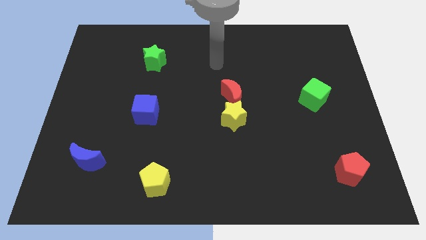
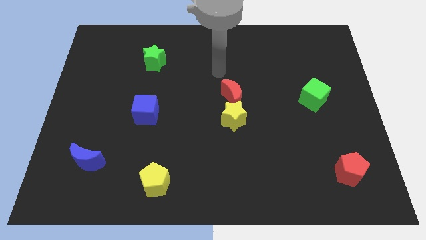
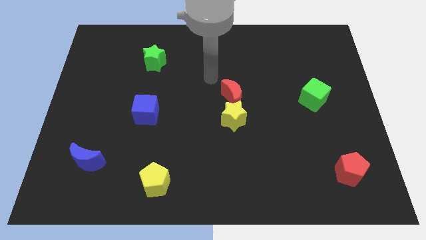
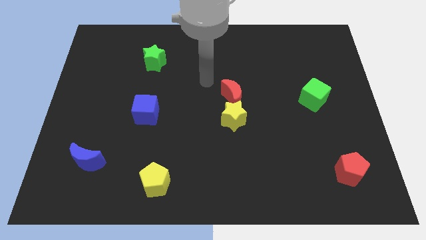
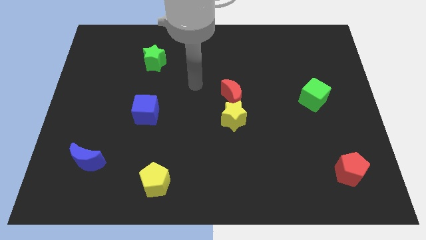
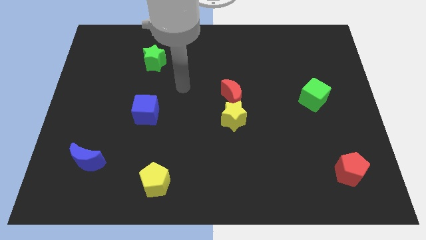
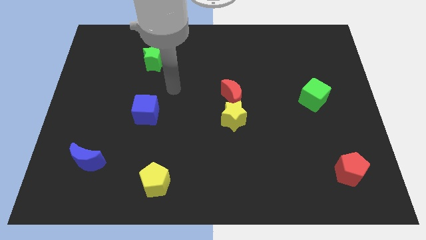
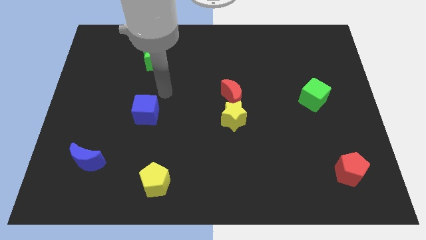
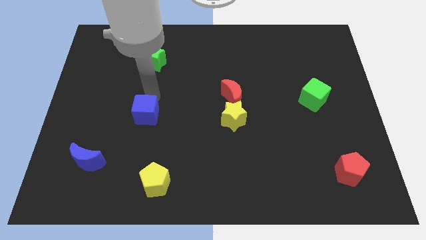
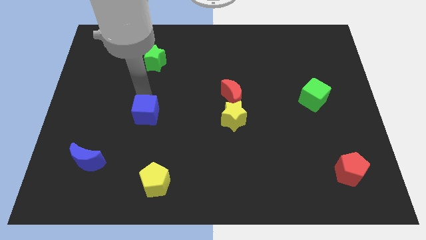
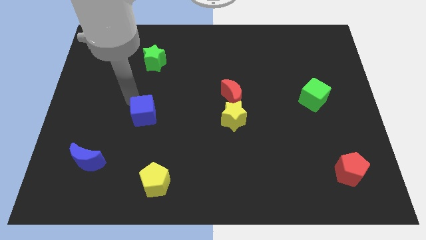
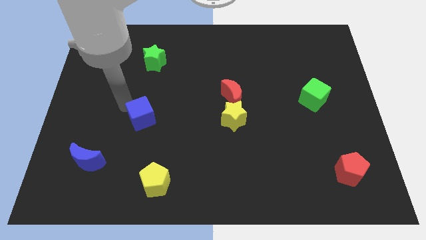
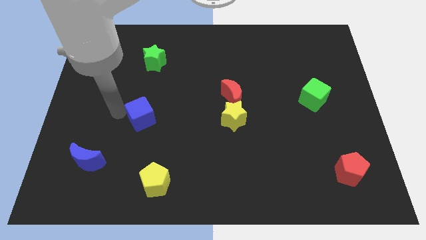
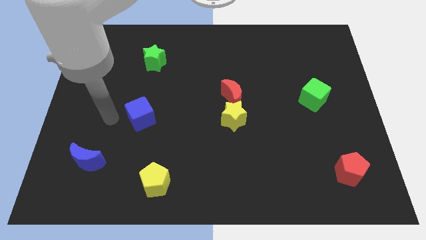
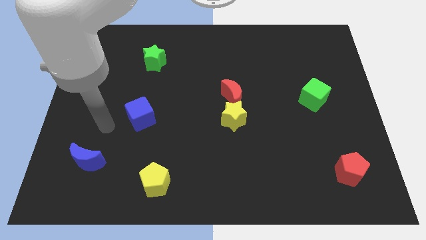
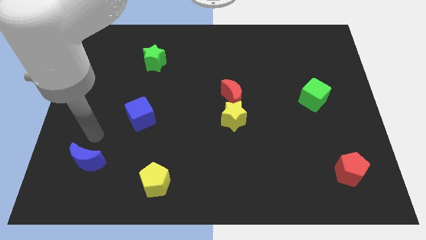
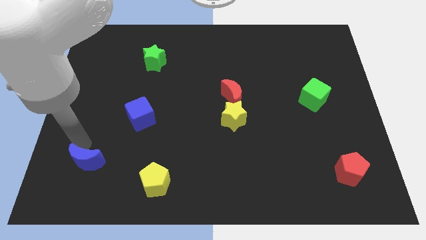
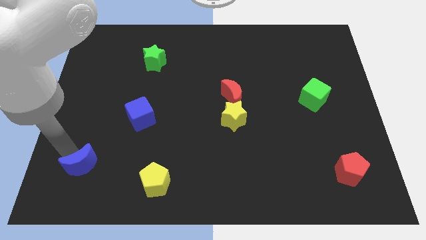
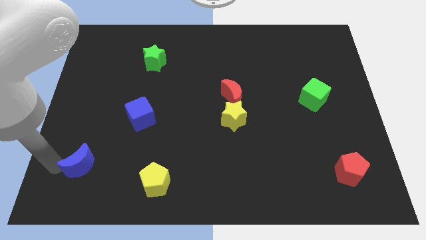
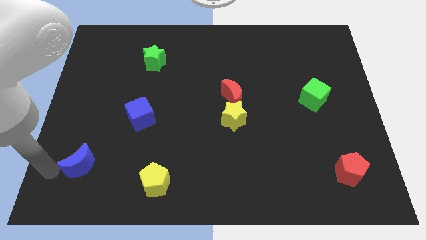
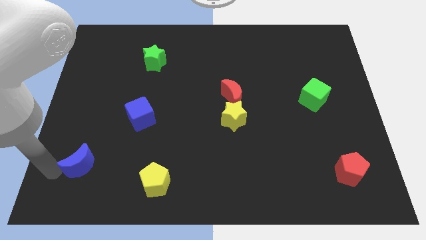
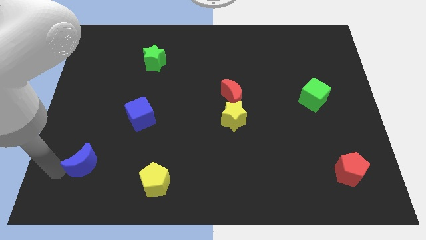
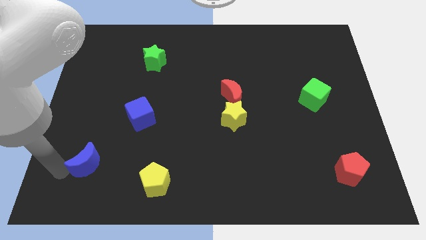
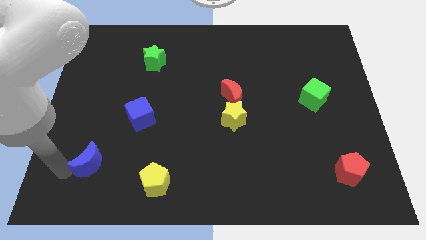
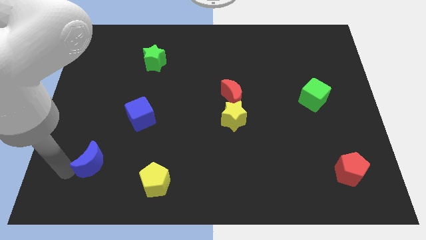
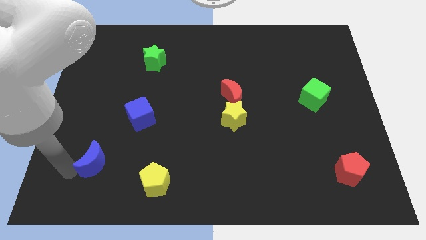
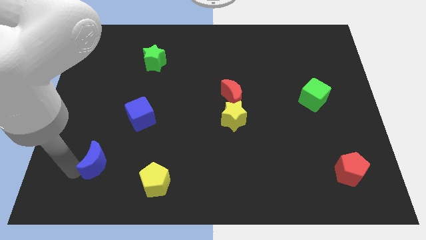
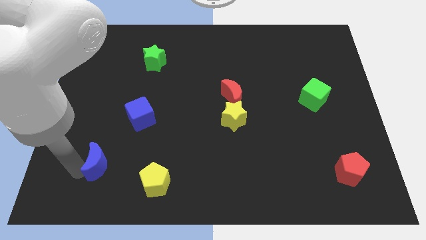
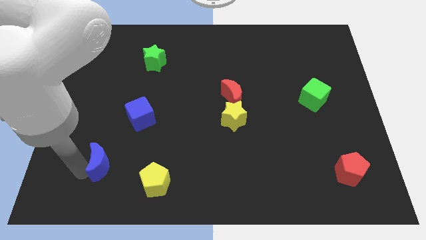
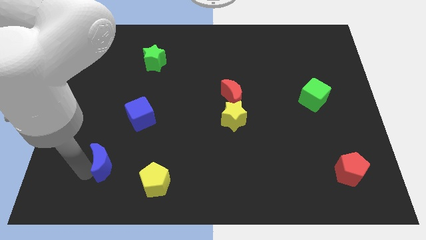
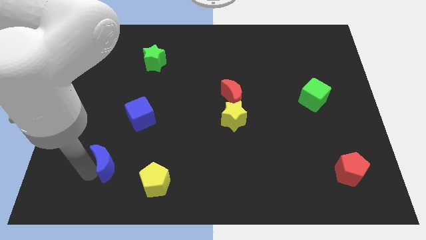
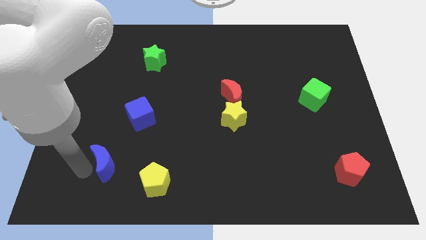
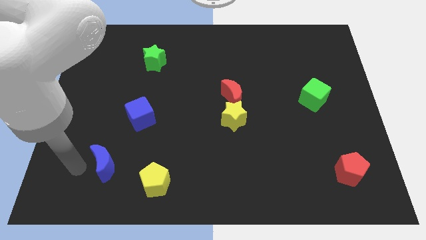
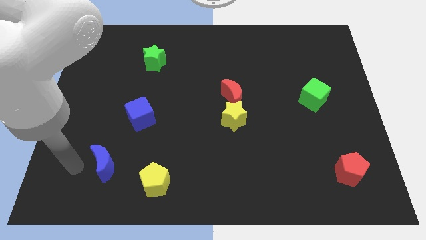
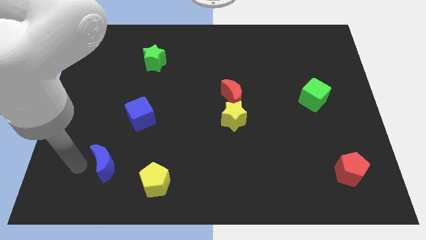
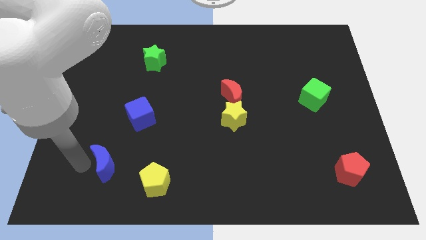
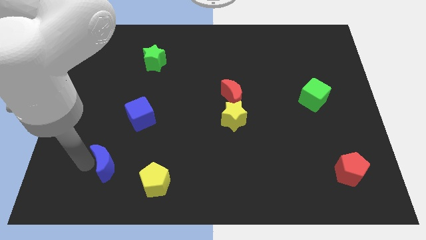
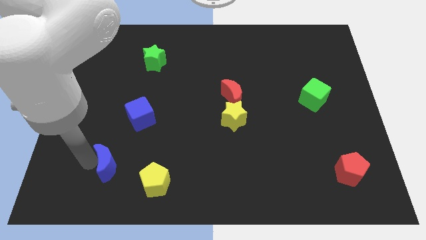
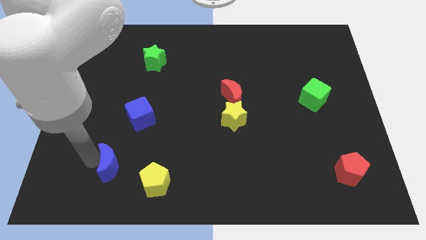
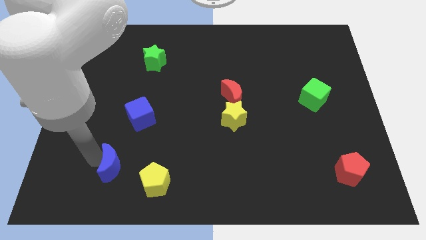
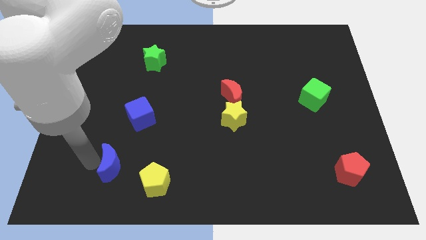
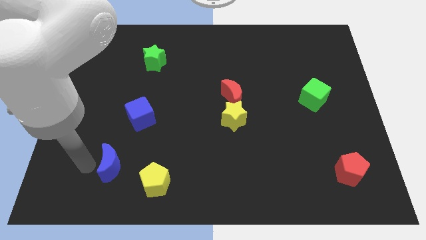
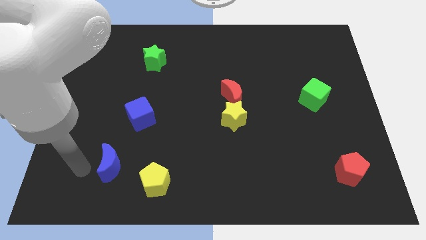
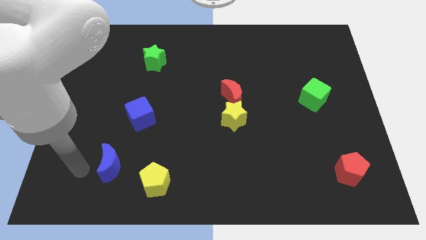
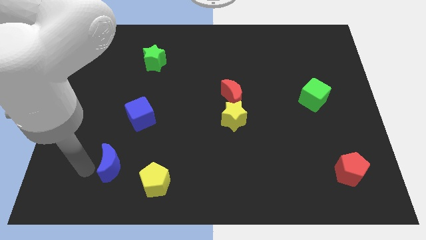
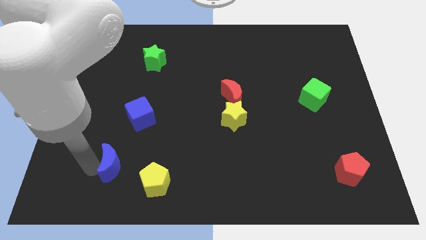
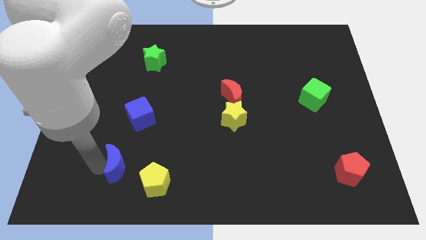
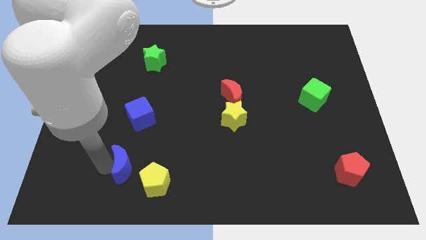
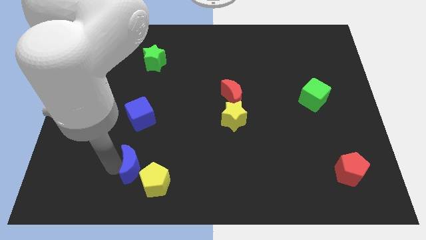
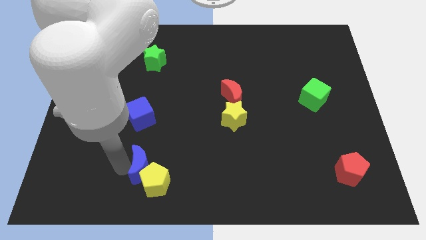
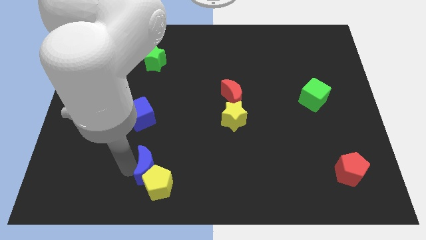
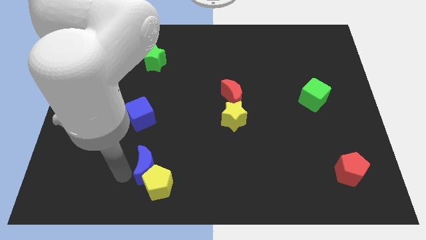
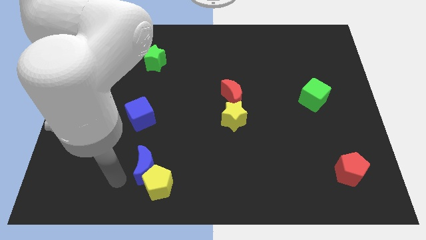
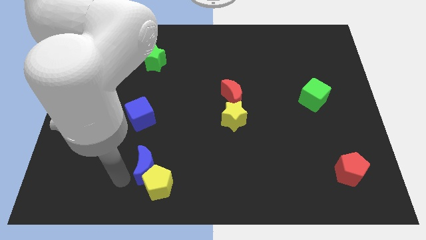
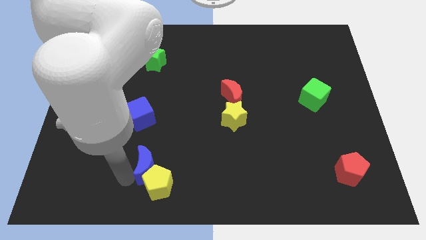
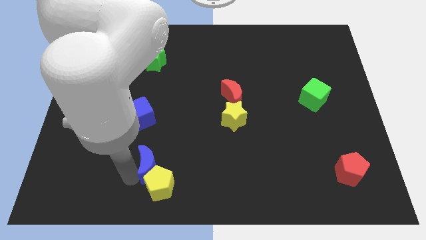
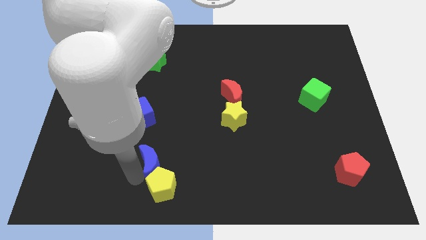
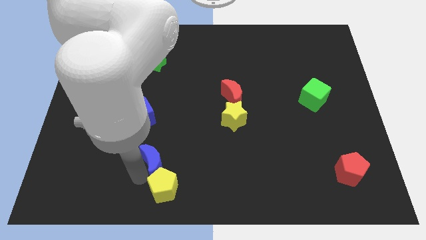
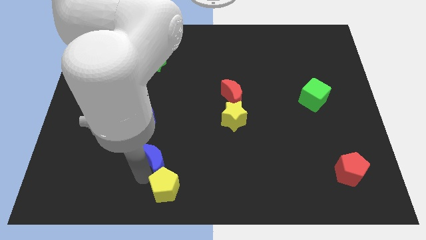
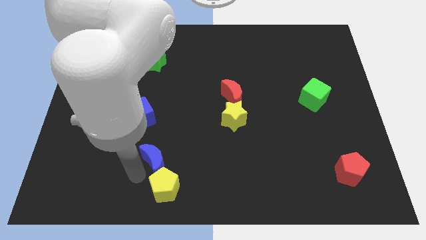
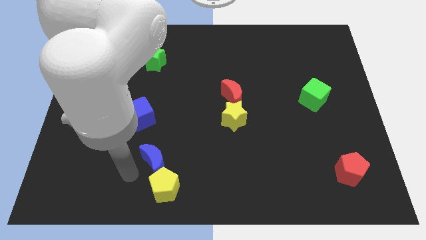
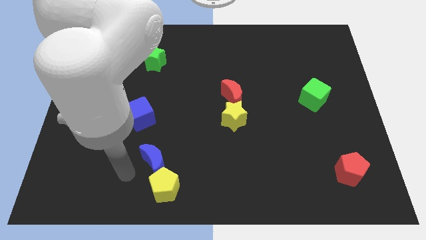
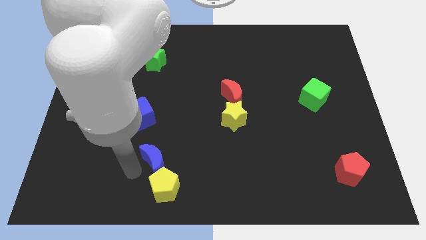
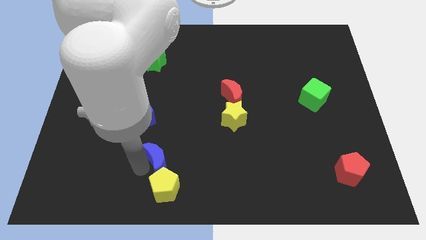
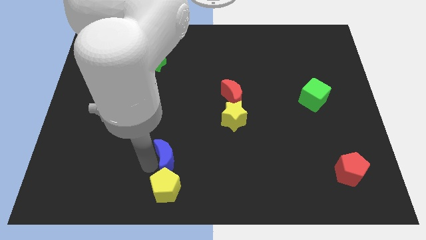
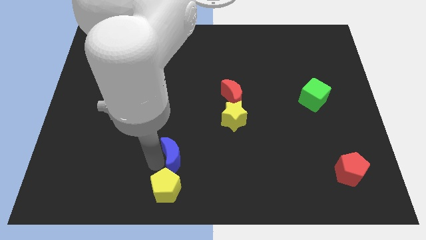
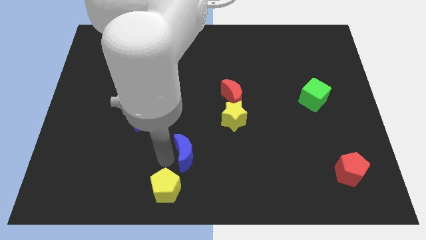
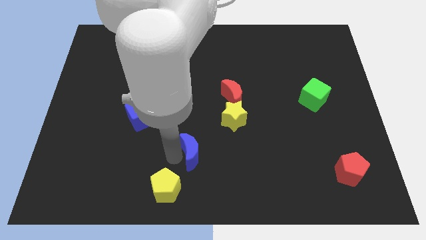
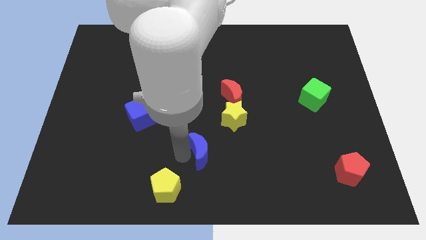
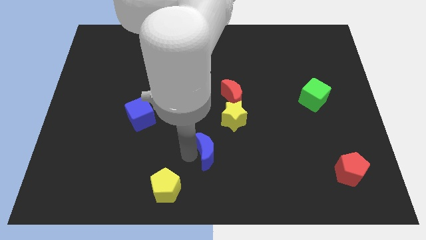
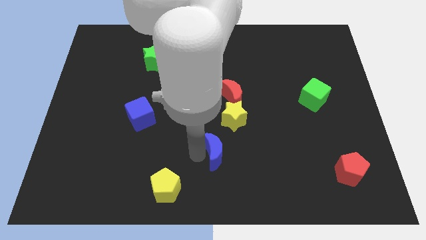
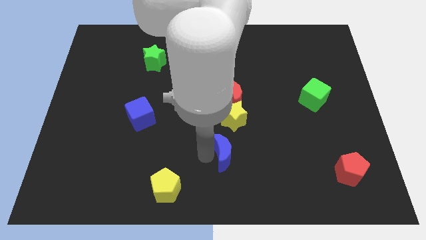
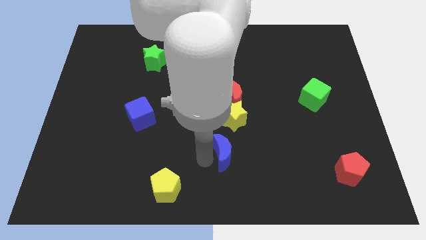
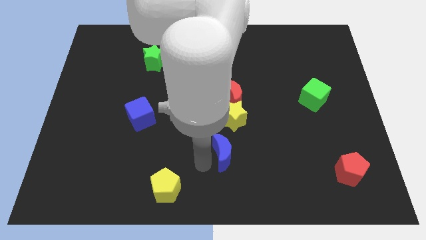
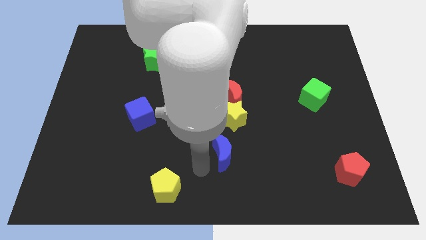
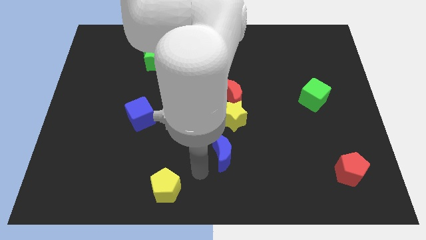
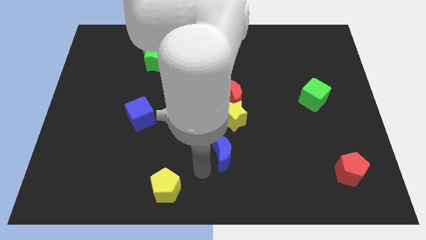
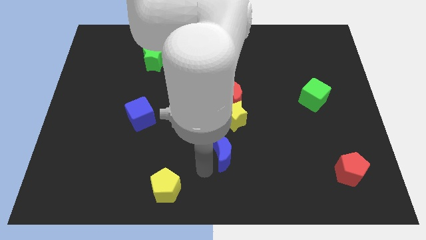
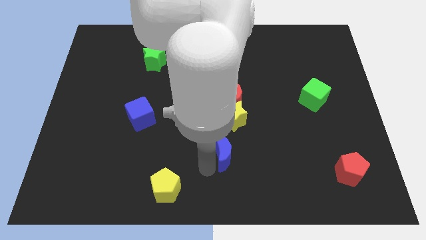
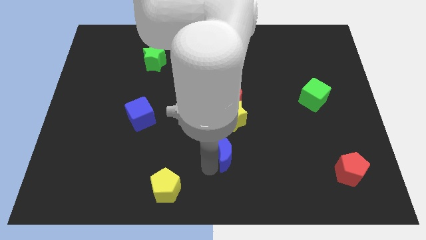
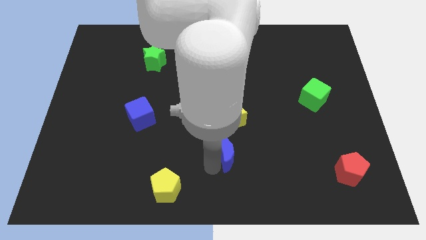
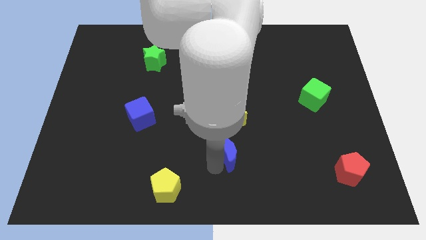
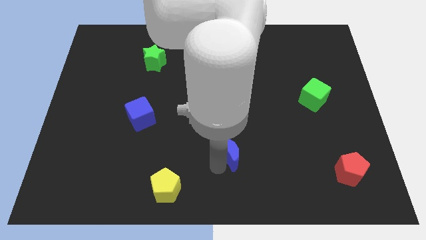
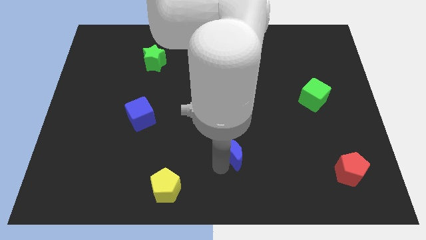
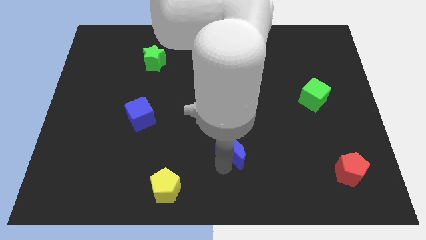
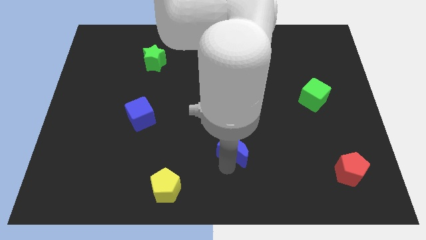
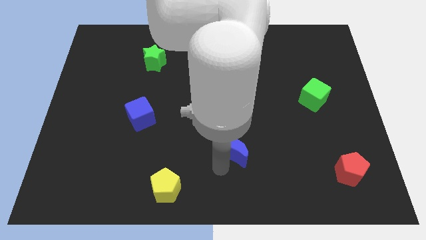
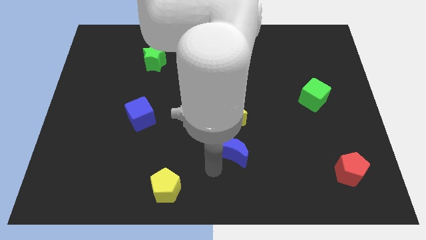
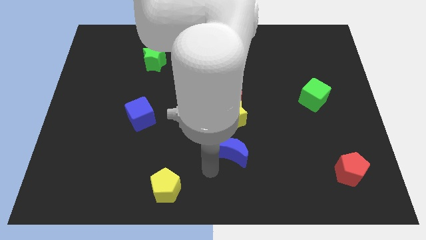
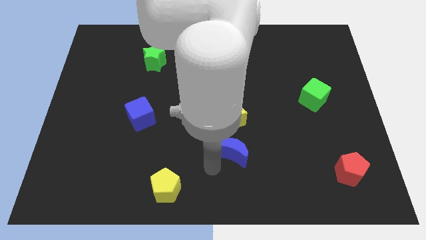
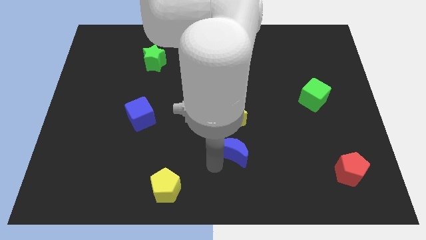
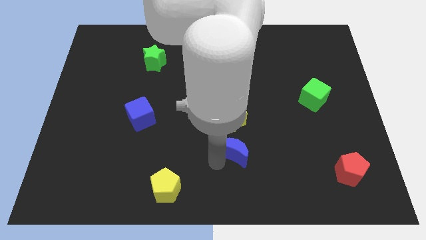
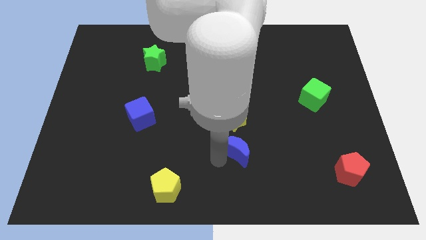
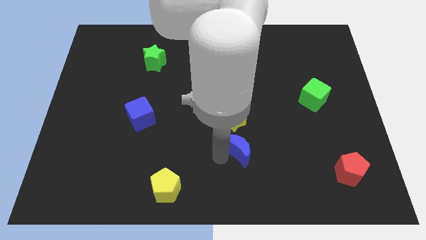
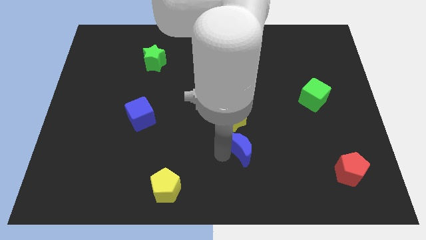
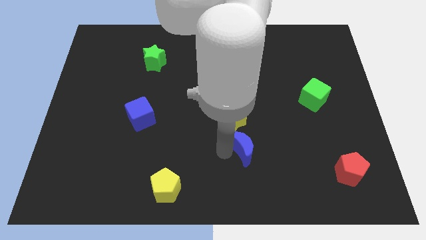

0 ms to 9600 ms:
put the blue moon to the bottom right side of the yellow star
